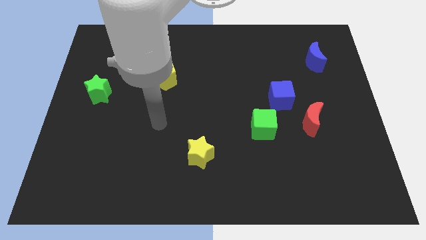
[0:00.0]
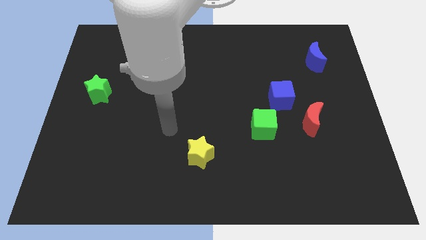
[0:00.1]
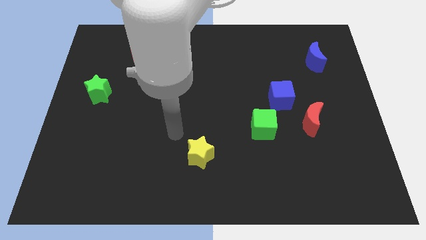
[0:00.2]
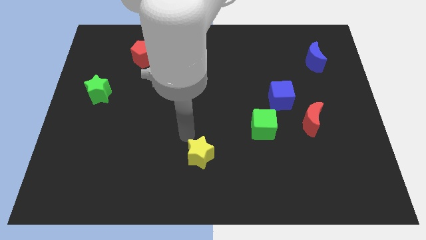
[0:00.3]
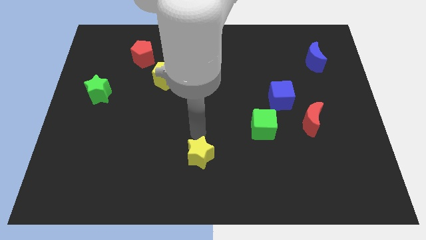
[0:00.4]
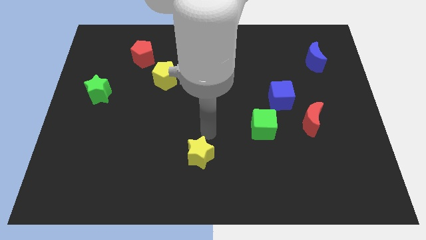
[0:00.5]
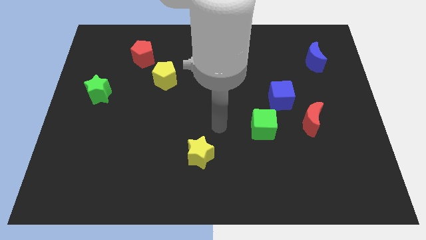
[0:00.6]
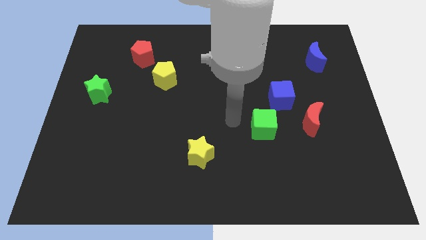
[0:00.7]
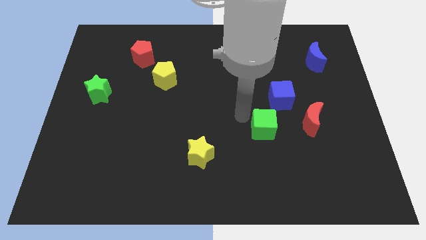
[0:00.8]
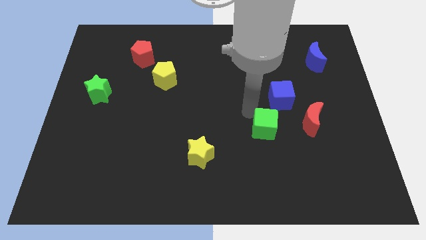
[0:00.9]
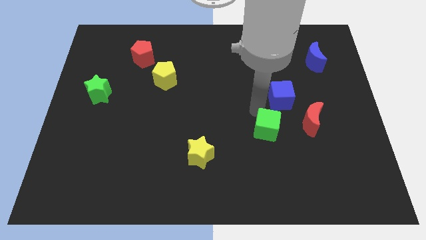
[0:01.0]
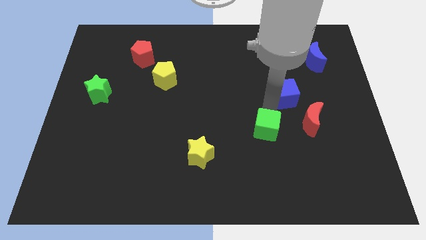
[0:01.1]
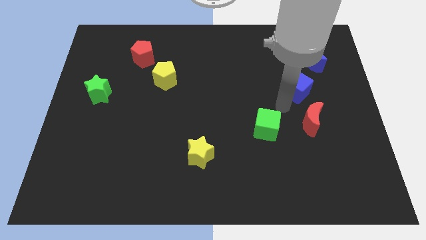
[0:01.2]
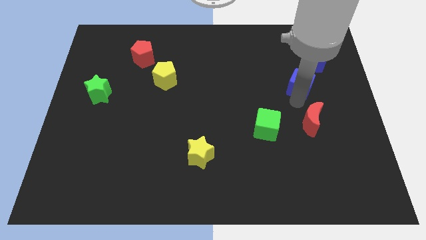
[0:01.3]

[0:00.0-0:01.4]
move the red moon away from the blue cube

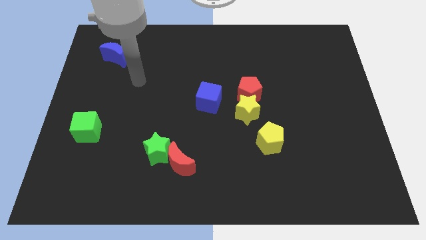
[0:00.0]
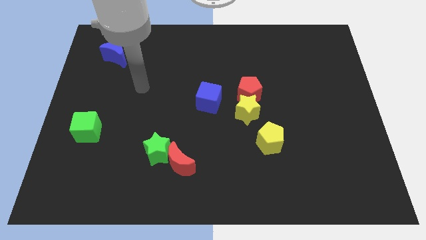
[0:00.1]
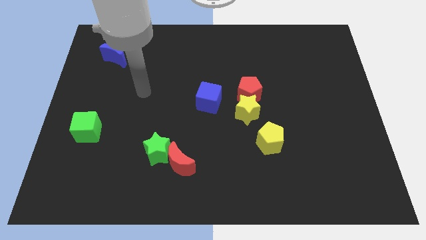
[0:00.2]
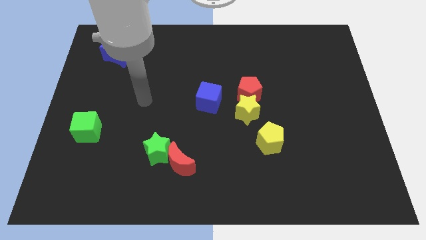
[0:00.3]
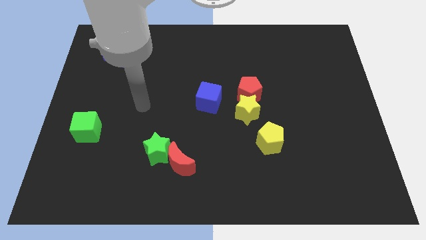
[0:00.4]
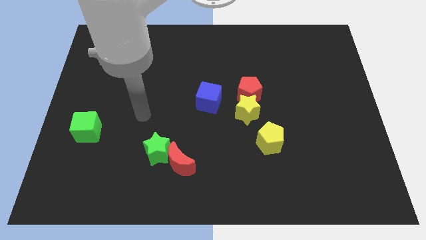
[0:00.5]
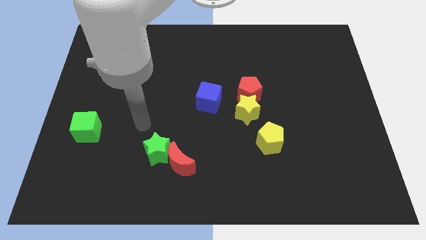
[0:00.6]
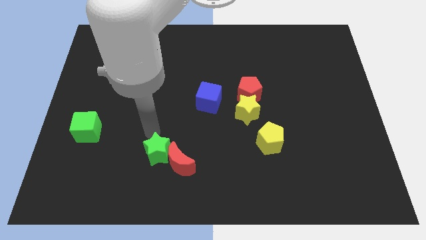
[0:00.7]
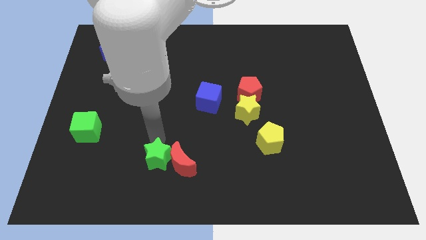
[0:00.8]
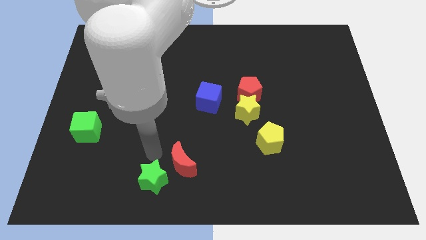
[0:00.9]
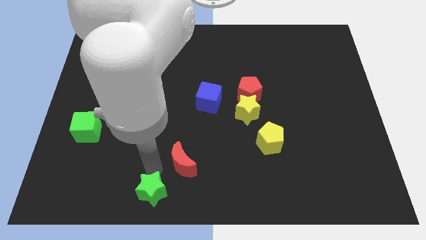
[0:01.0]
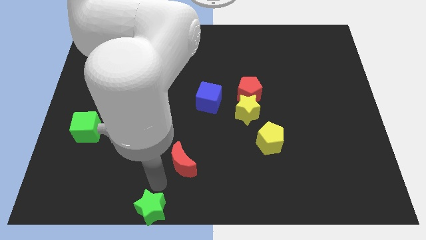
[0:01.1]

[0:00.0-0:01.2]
move the red moon away from the green star

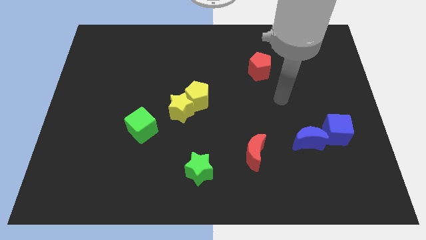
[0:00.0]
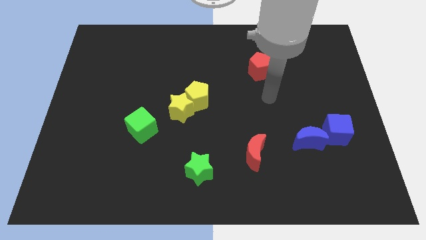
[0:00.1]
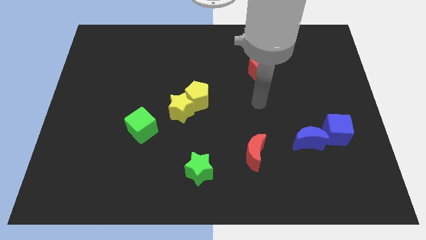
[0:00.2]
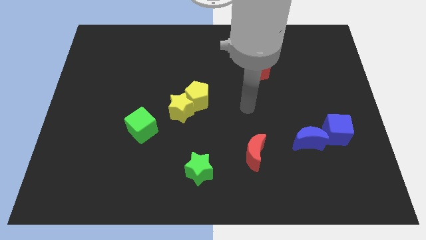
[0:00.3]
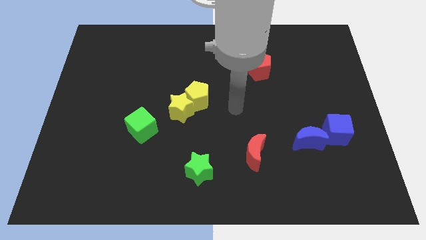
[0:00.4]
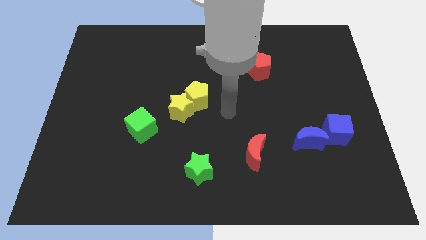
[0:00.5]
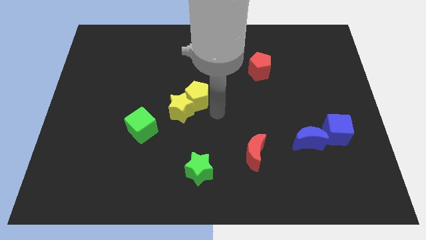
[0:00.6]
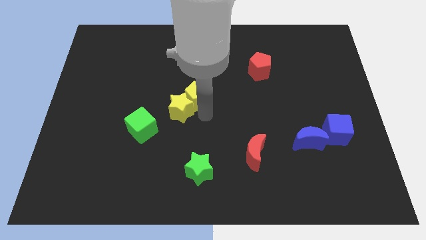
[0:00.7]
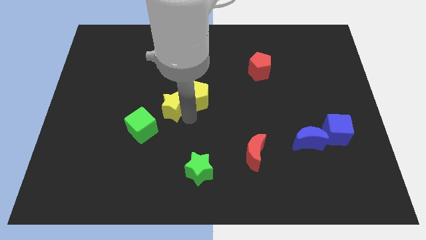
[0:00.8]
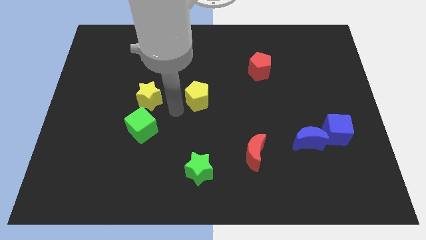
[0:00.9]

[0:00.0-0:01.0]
pull the yellow pentagon apart from the yellow star

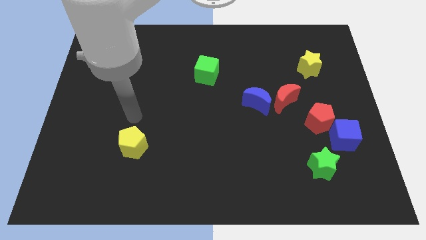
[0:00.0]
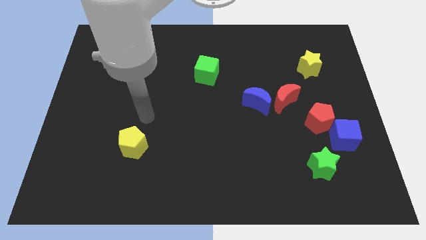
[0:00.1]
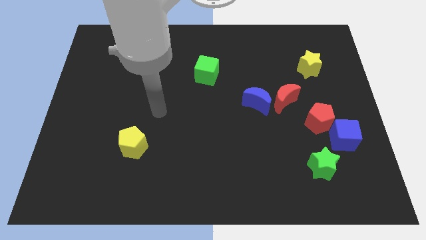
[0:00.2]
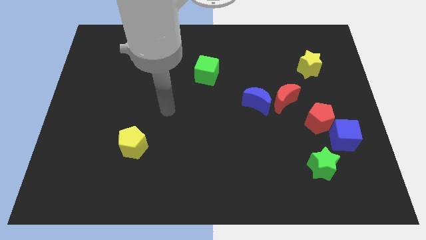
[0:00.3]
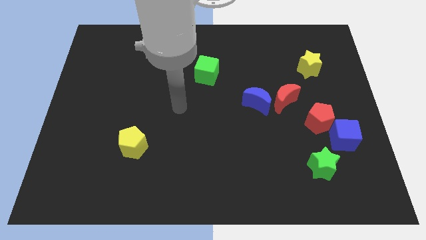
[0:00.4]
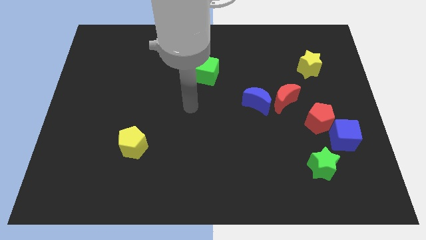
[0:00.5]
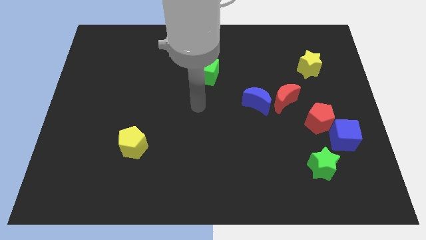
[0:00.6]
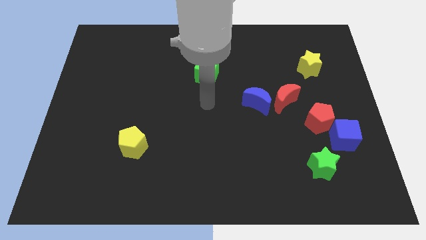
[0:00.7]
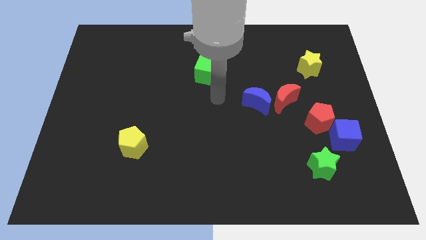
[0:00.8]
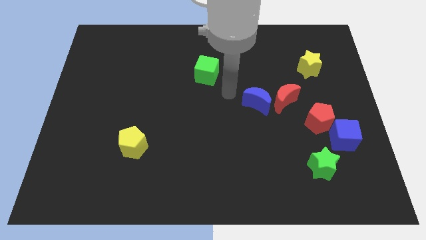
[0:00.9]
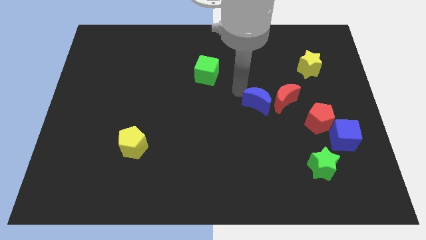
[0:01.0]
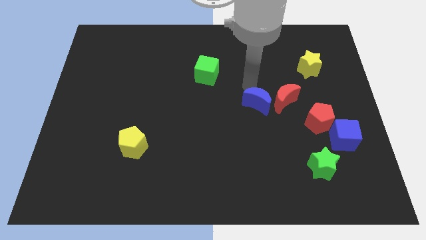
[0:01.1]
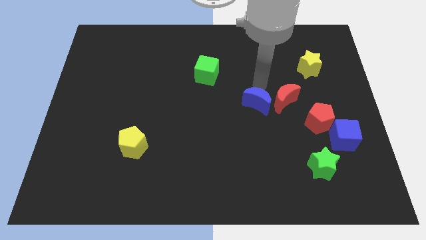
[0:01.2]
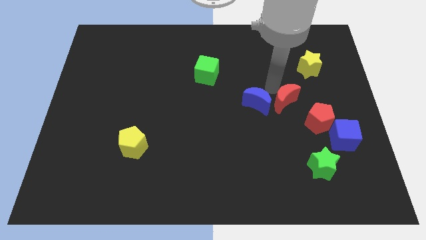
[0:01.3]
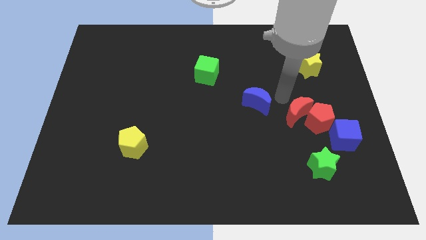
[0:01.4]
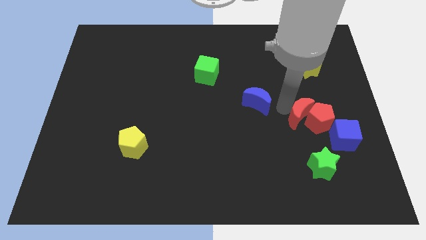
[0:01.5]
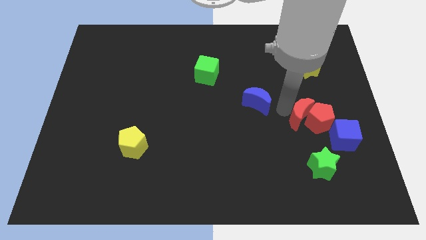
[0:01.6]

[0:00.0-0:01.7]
separate the blue moon from the red moon

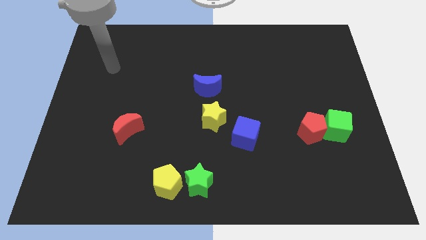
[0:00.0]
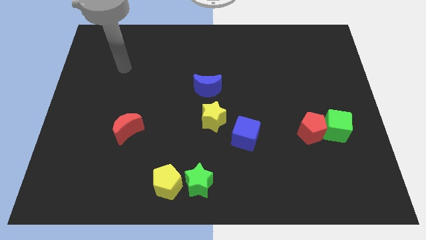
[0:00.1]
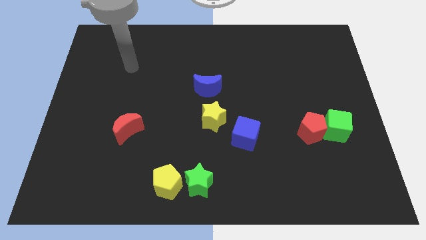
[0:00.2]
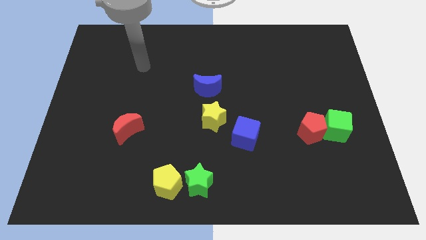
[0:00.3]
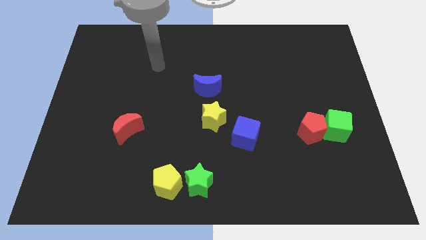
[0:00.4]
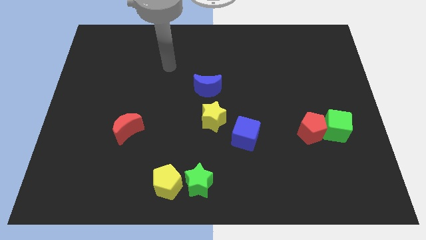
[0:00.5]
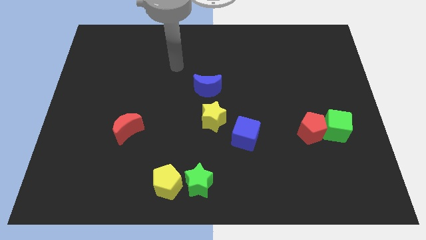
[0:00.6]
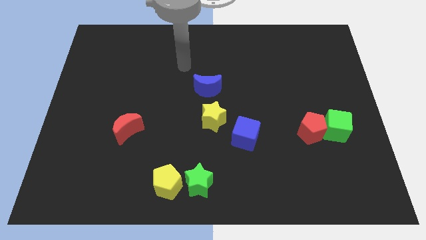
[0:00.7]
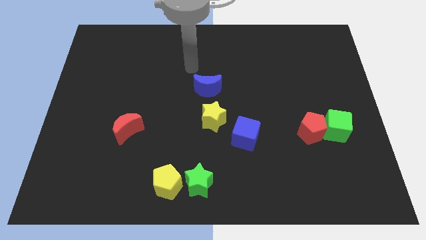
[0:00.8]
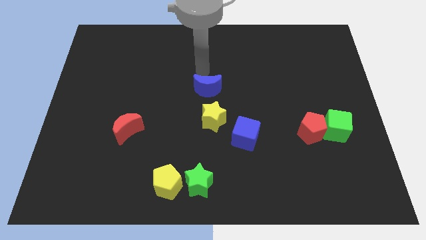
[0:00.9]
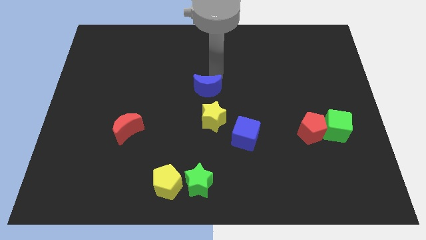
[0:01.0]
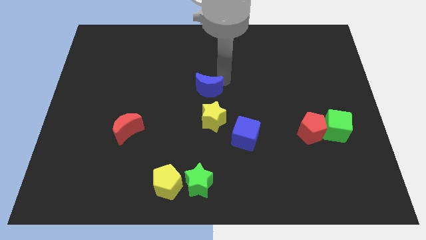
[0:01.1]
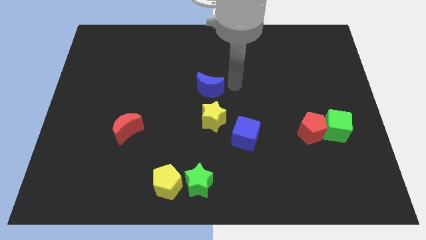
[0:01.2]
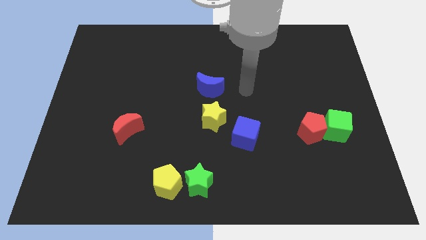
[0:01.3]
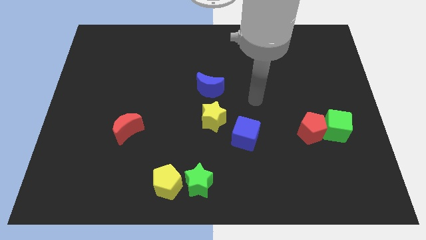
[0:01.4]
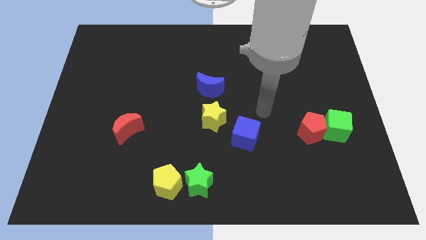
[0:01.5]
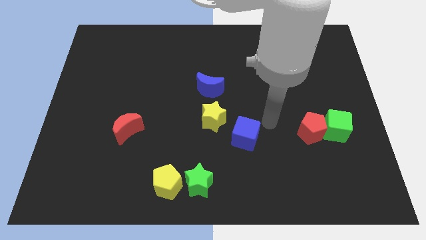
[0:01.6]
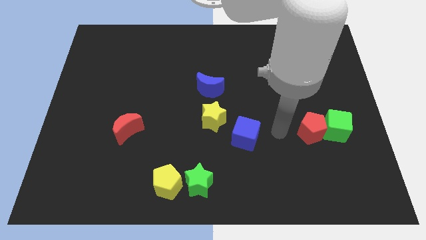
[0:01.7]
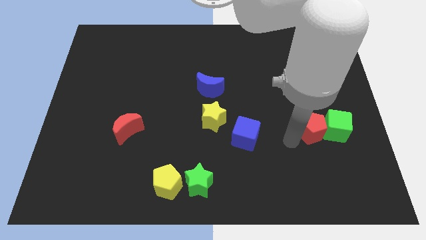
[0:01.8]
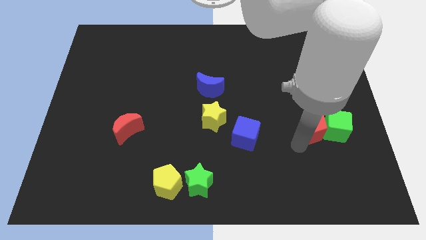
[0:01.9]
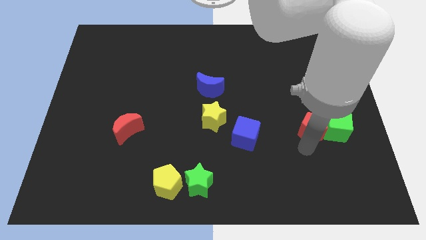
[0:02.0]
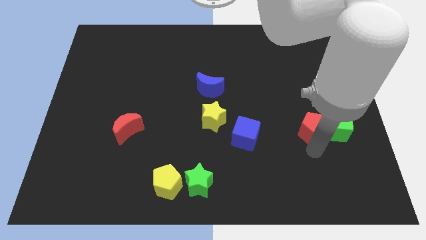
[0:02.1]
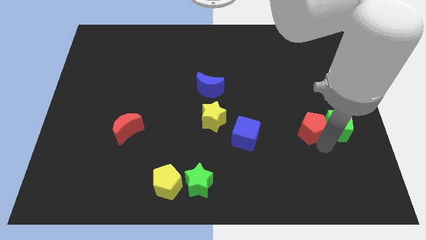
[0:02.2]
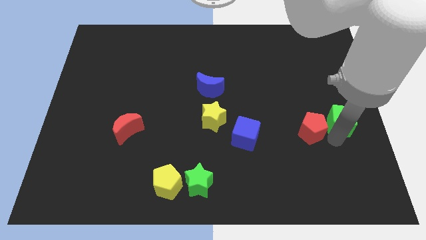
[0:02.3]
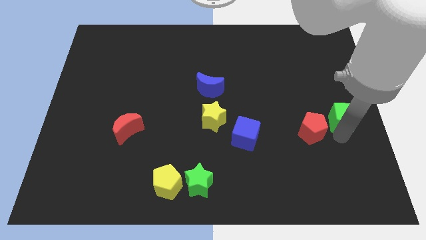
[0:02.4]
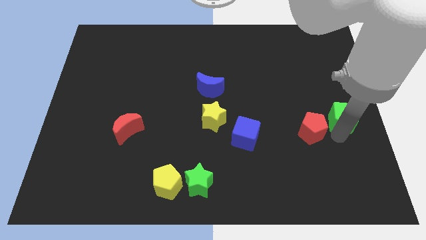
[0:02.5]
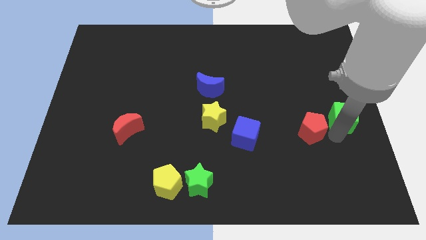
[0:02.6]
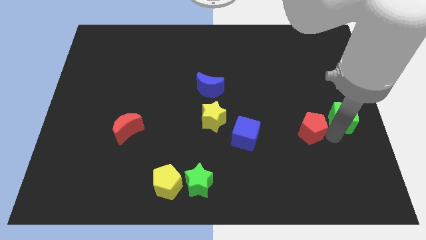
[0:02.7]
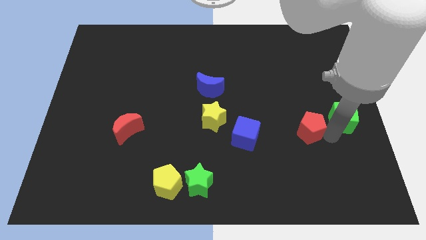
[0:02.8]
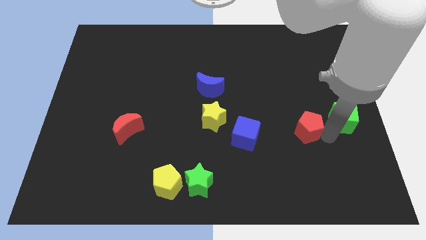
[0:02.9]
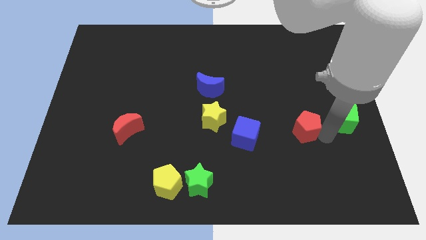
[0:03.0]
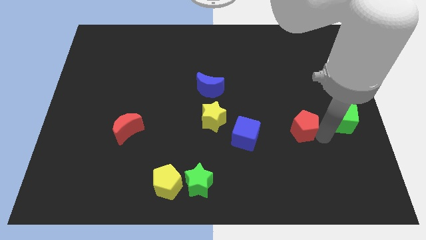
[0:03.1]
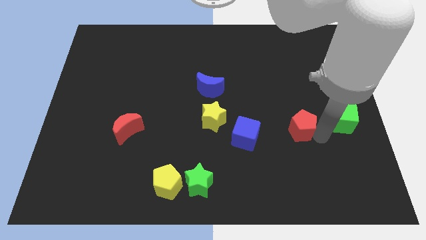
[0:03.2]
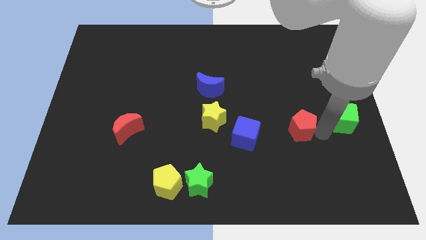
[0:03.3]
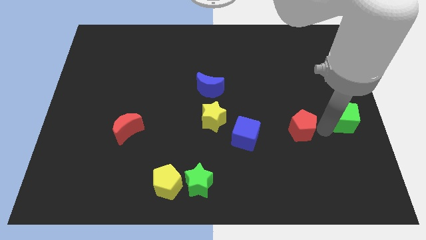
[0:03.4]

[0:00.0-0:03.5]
move the red pentagon away from the green cube

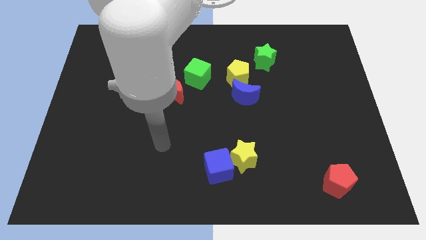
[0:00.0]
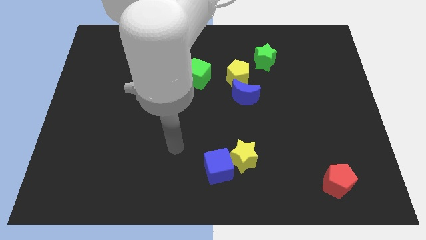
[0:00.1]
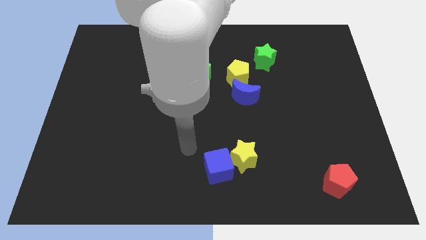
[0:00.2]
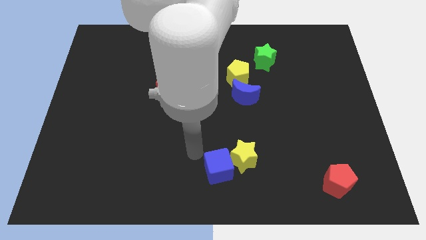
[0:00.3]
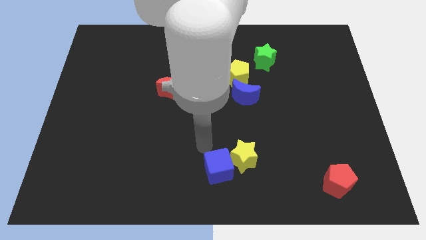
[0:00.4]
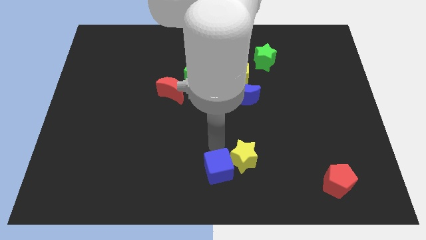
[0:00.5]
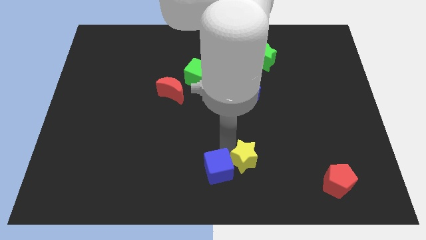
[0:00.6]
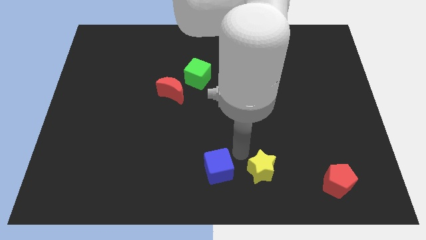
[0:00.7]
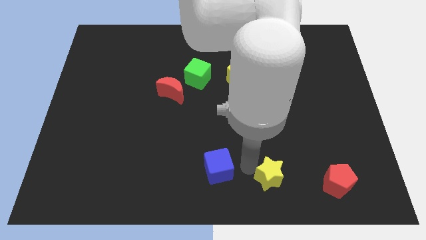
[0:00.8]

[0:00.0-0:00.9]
pull the blue cube apart from the yellow star
